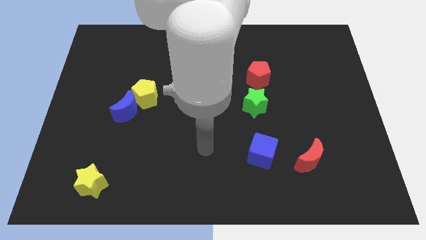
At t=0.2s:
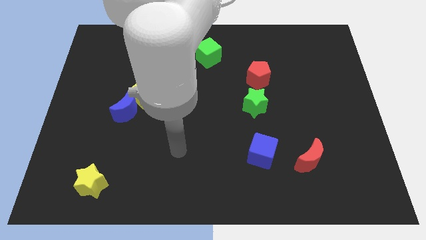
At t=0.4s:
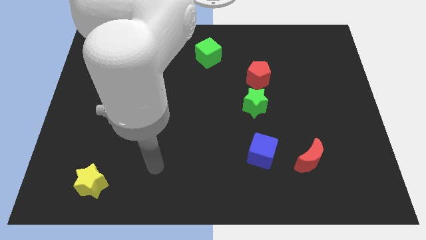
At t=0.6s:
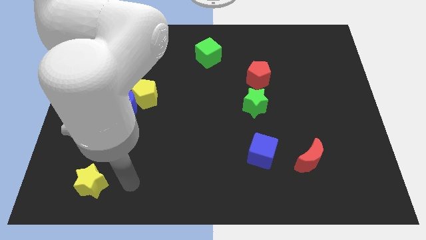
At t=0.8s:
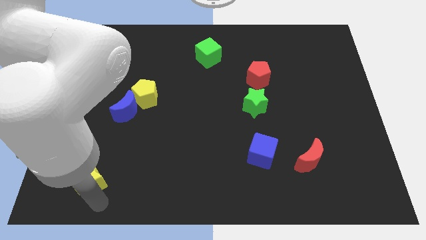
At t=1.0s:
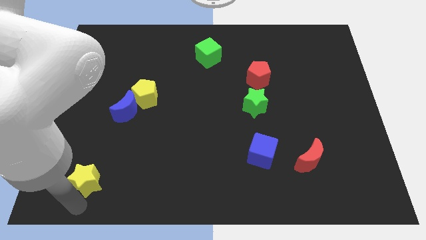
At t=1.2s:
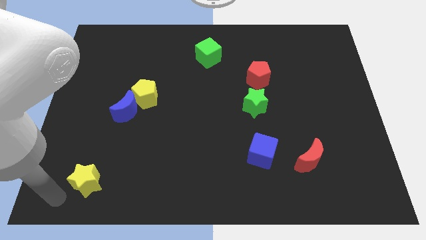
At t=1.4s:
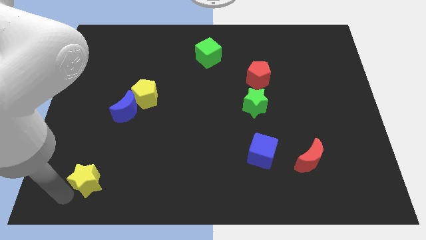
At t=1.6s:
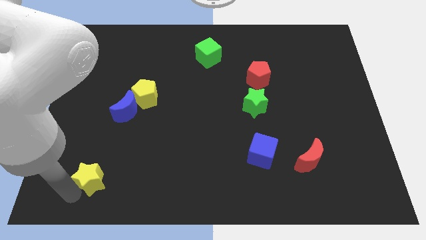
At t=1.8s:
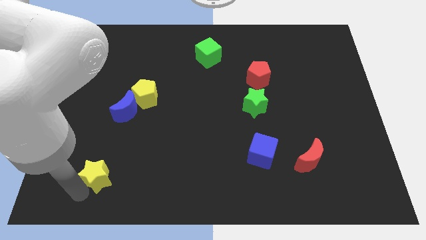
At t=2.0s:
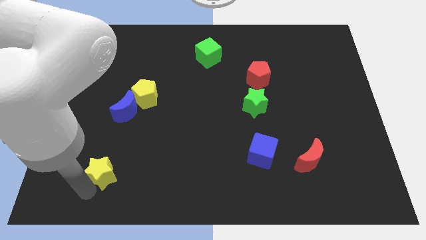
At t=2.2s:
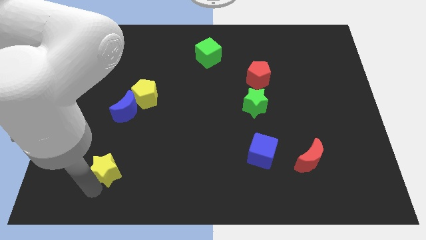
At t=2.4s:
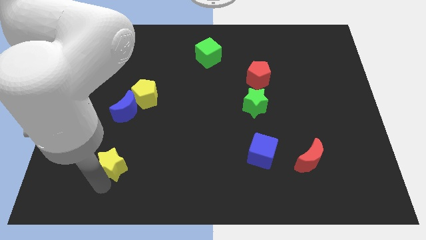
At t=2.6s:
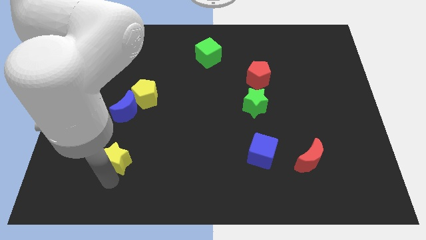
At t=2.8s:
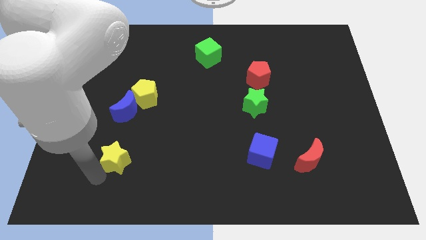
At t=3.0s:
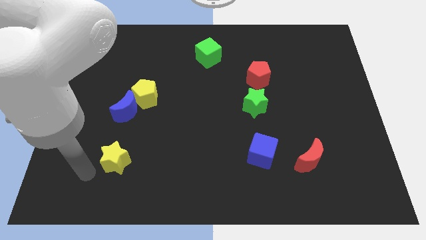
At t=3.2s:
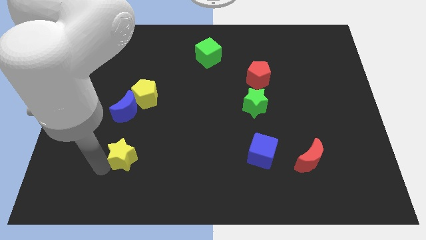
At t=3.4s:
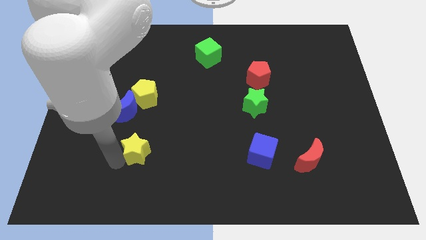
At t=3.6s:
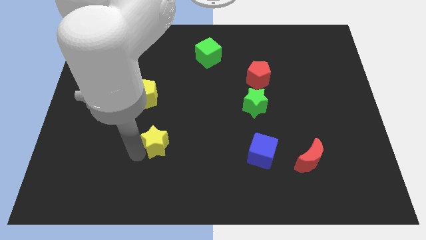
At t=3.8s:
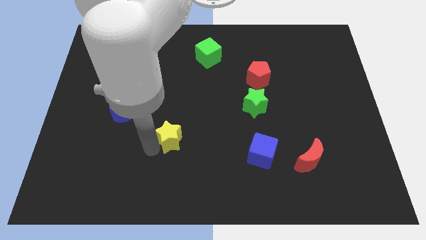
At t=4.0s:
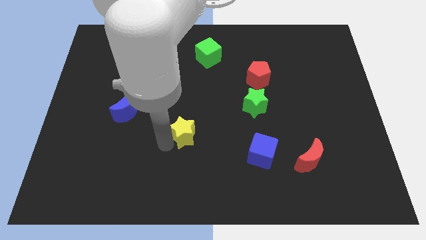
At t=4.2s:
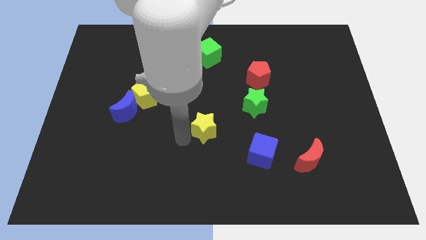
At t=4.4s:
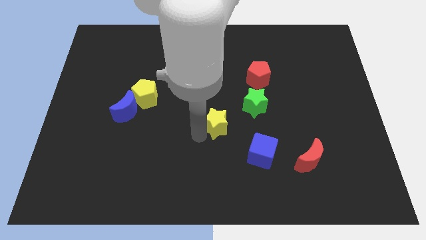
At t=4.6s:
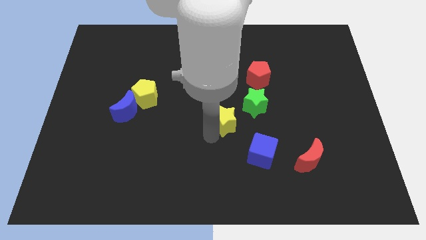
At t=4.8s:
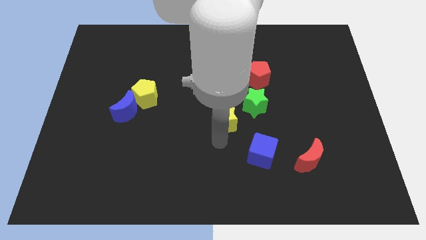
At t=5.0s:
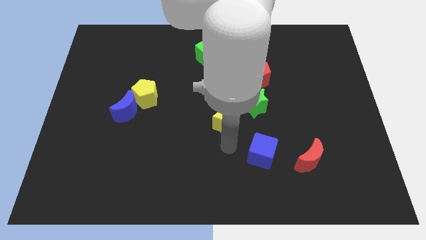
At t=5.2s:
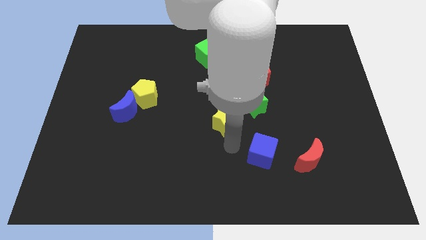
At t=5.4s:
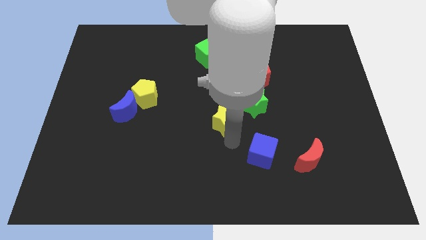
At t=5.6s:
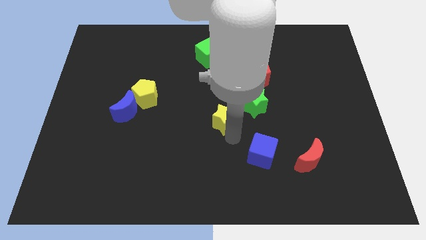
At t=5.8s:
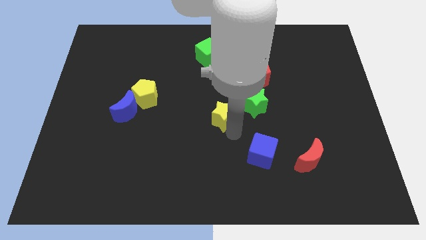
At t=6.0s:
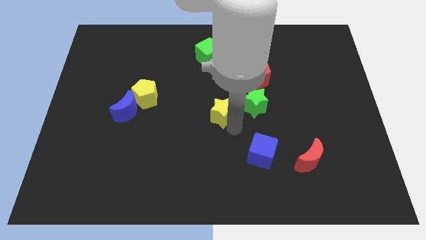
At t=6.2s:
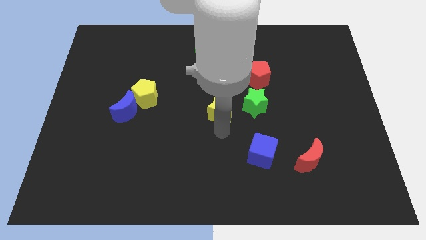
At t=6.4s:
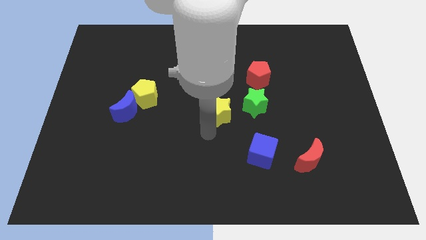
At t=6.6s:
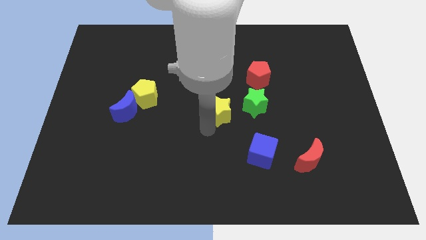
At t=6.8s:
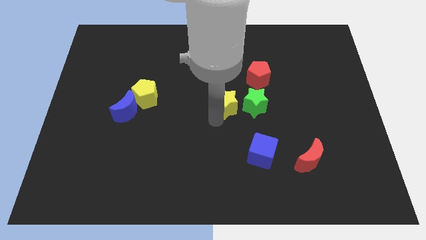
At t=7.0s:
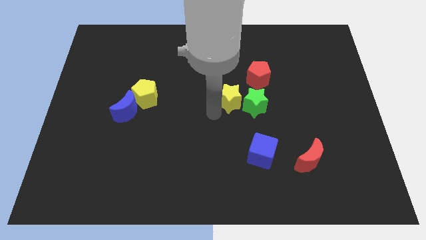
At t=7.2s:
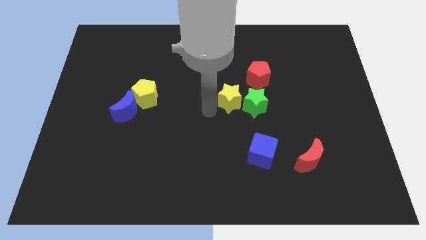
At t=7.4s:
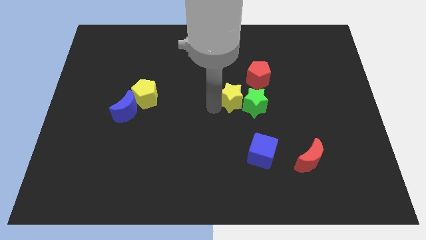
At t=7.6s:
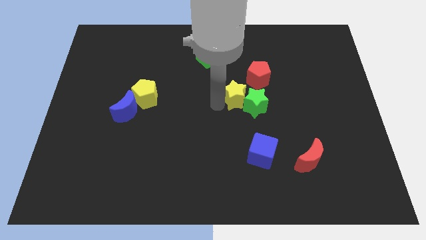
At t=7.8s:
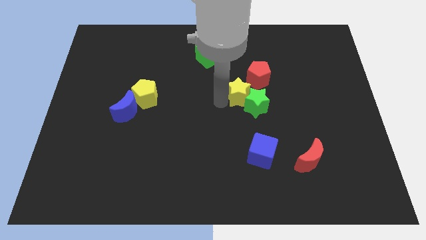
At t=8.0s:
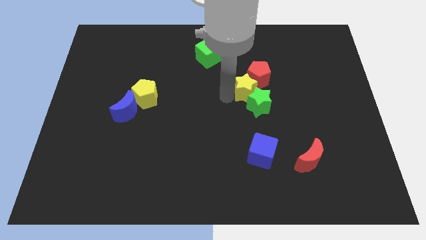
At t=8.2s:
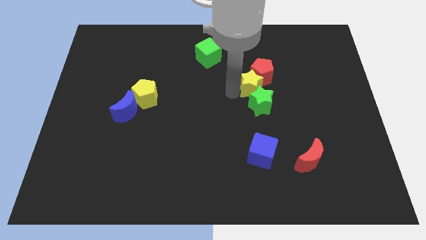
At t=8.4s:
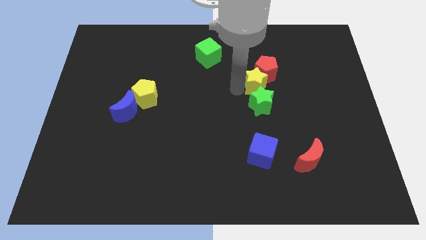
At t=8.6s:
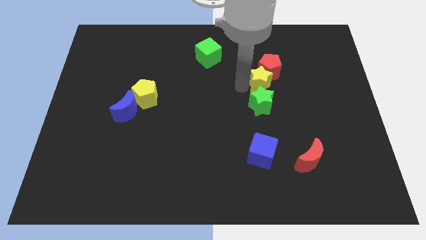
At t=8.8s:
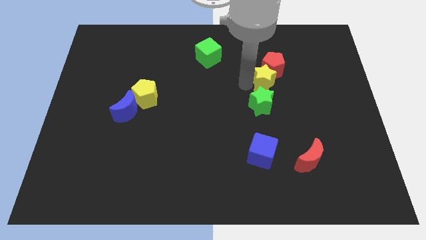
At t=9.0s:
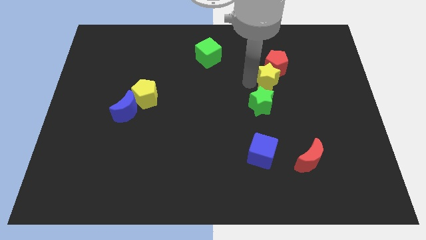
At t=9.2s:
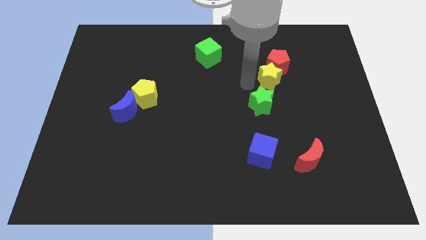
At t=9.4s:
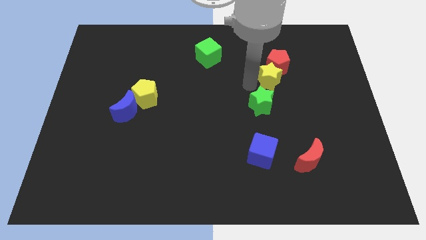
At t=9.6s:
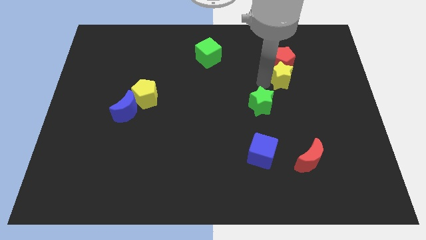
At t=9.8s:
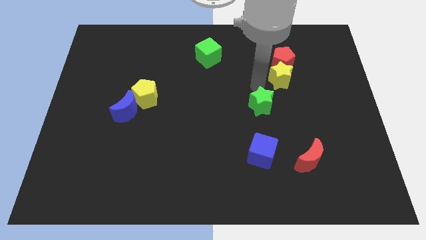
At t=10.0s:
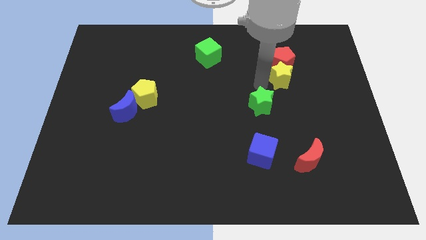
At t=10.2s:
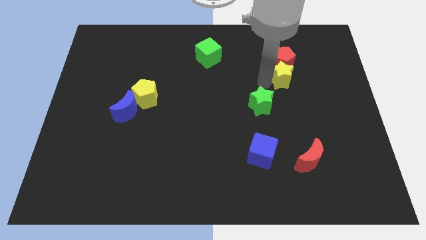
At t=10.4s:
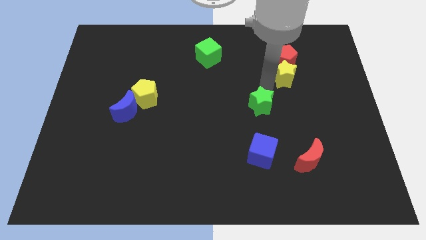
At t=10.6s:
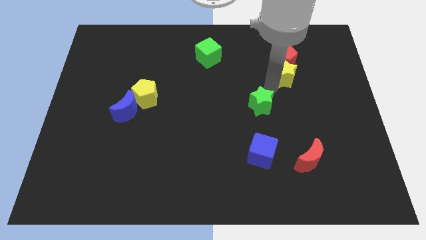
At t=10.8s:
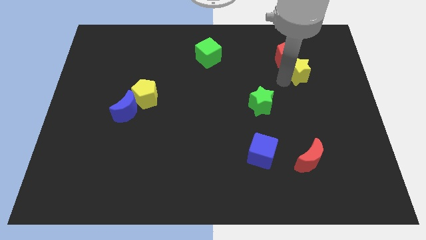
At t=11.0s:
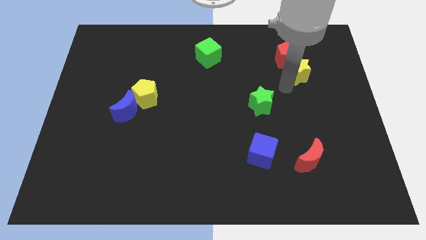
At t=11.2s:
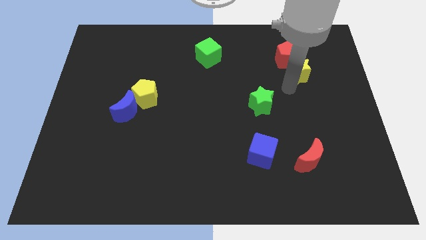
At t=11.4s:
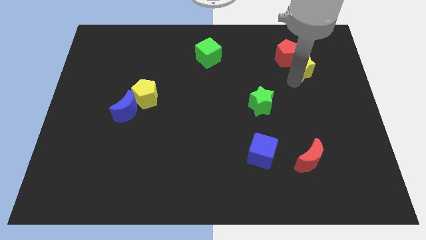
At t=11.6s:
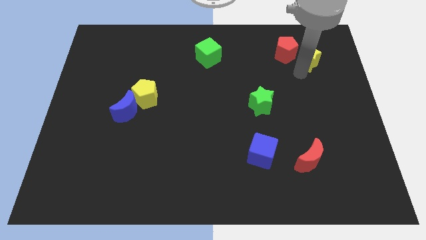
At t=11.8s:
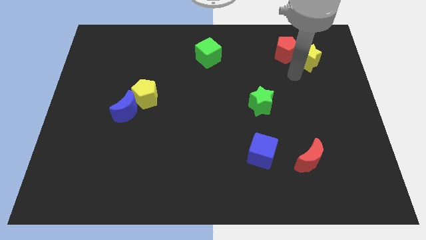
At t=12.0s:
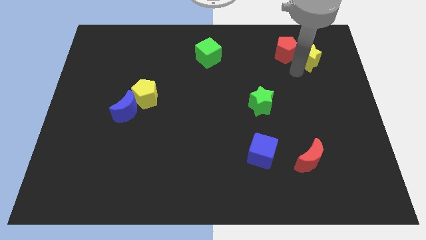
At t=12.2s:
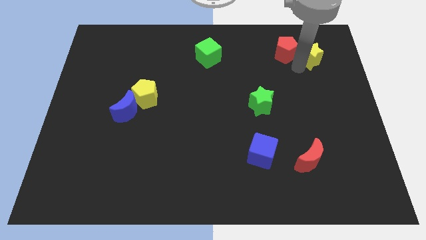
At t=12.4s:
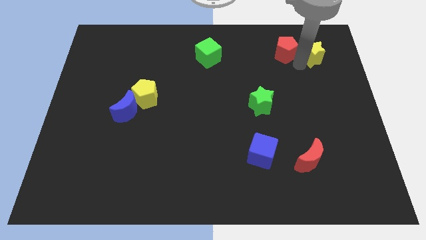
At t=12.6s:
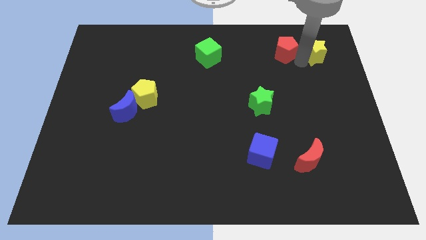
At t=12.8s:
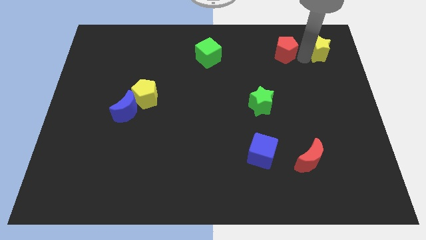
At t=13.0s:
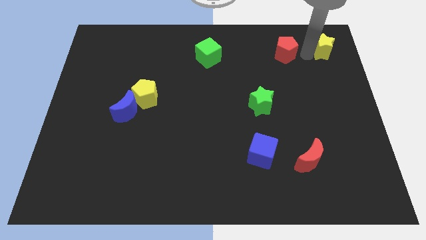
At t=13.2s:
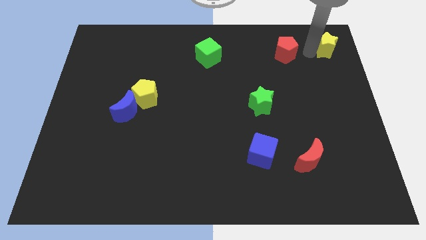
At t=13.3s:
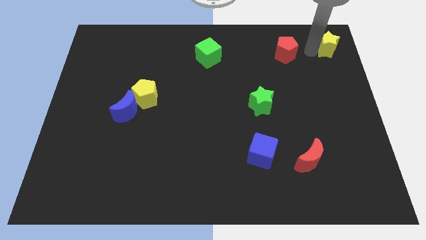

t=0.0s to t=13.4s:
push the yellow star to the top right of the board

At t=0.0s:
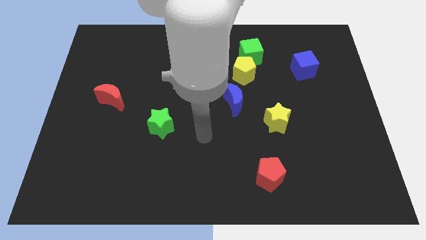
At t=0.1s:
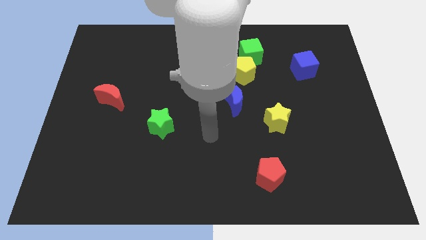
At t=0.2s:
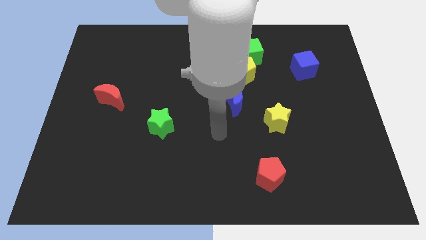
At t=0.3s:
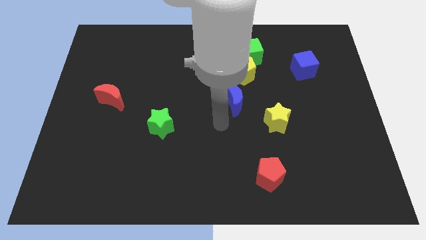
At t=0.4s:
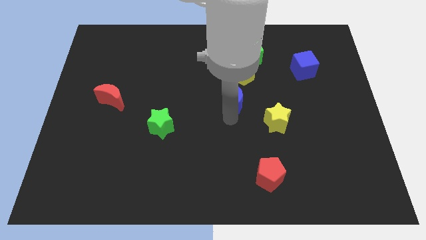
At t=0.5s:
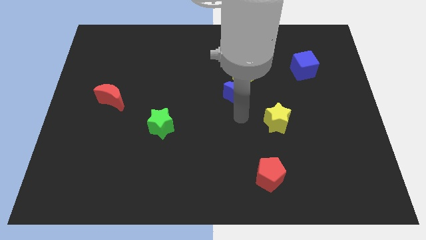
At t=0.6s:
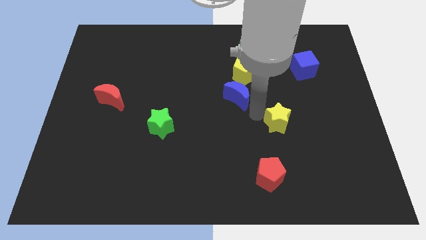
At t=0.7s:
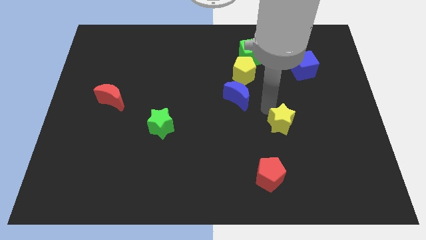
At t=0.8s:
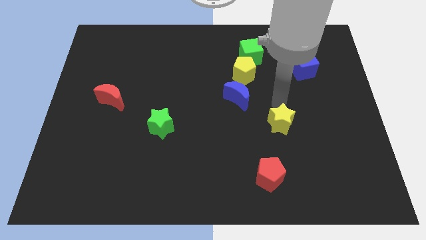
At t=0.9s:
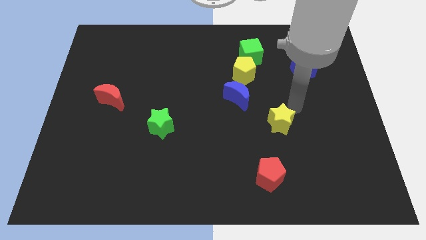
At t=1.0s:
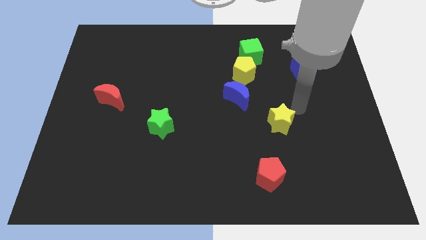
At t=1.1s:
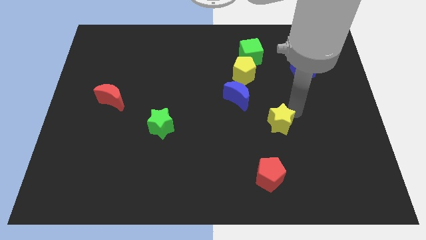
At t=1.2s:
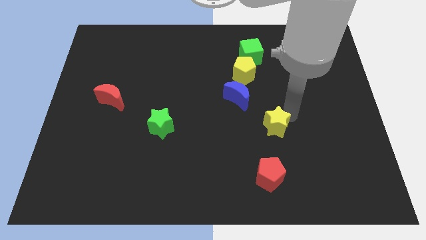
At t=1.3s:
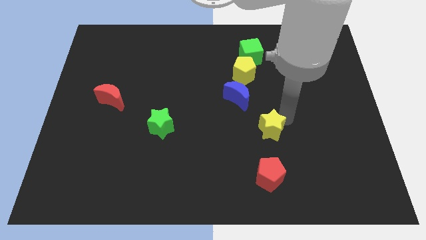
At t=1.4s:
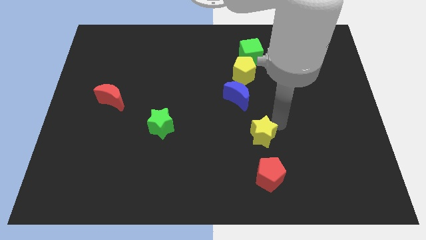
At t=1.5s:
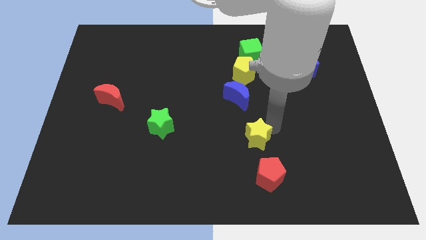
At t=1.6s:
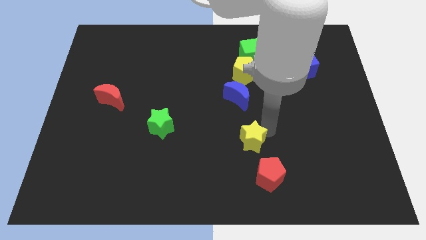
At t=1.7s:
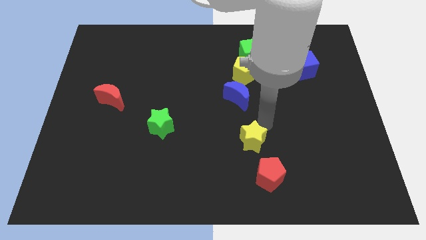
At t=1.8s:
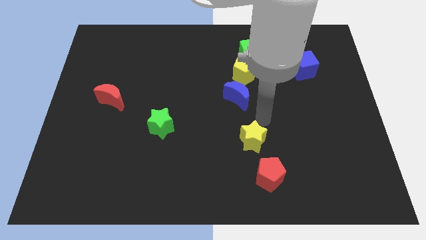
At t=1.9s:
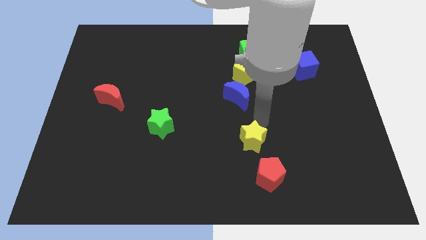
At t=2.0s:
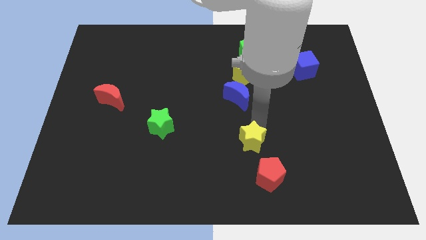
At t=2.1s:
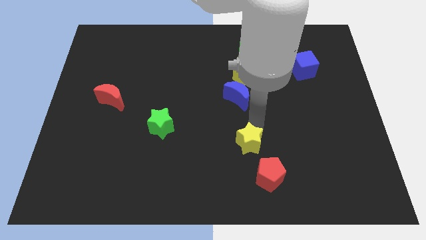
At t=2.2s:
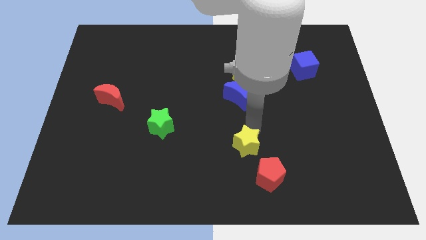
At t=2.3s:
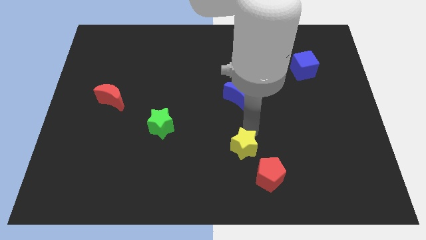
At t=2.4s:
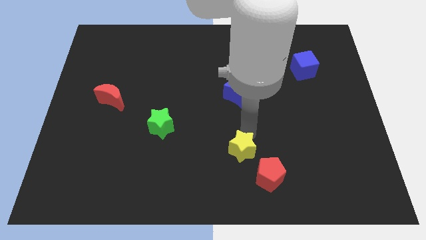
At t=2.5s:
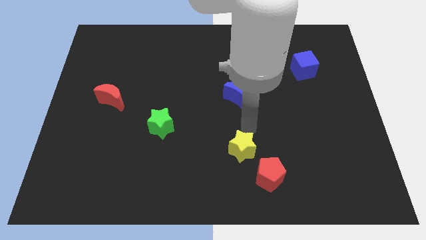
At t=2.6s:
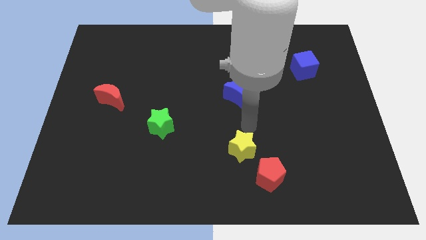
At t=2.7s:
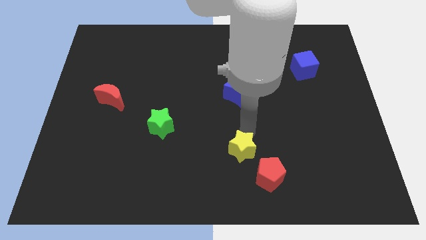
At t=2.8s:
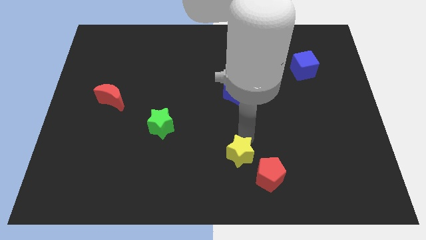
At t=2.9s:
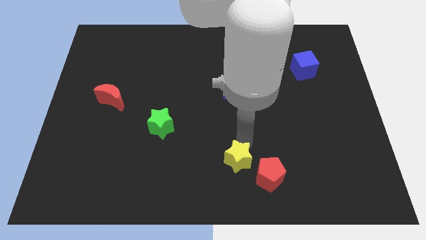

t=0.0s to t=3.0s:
put the yellow star to the bottom
